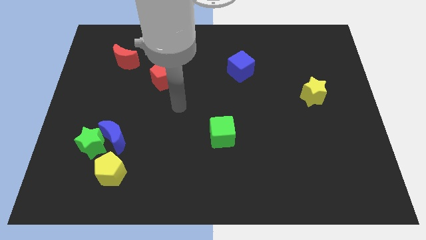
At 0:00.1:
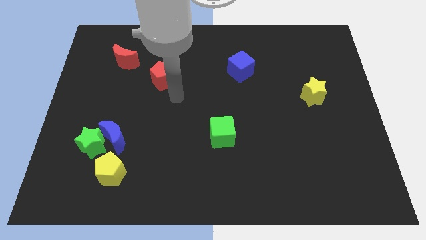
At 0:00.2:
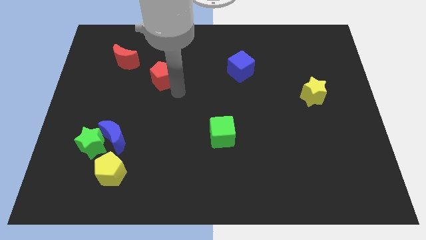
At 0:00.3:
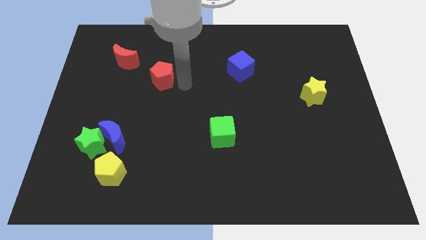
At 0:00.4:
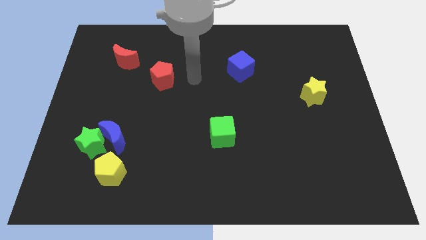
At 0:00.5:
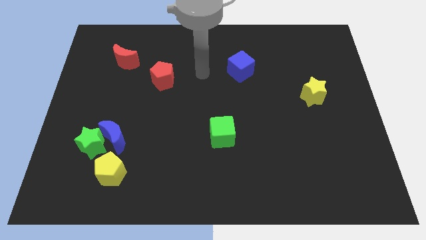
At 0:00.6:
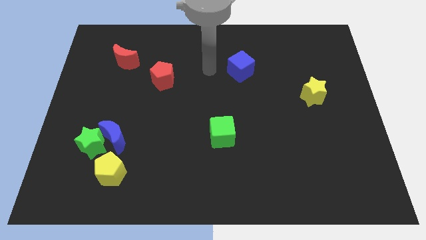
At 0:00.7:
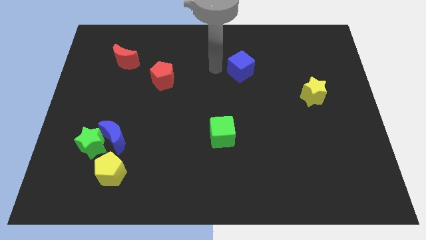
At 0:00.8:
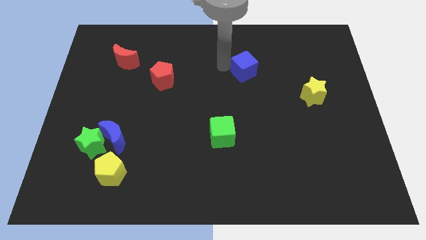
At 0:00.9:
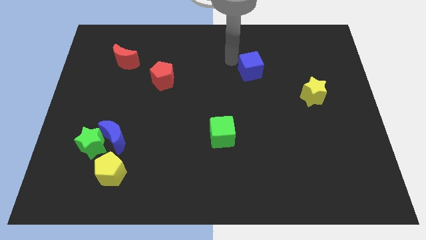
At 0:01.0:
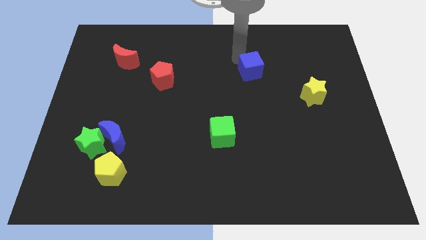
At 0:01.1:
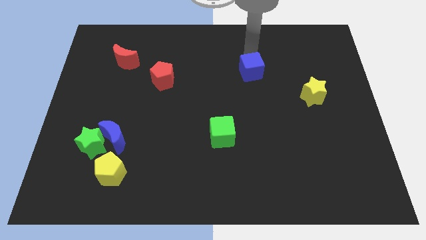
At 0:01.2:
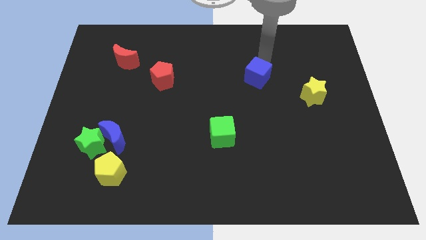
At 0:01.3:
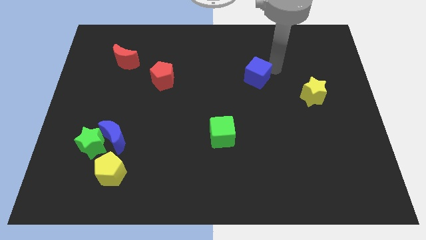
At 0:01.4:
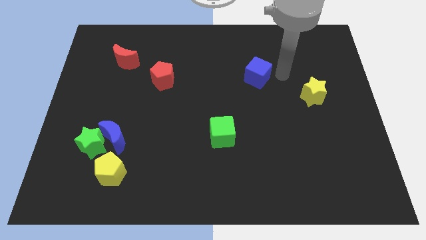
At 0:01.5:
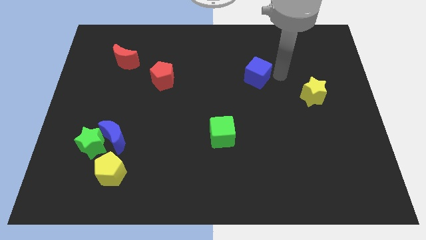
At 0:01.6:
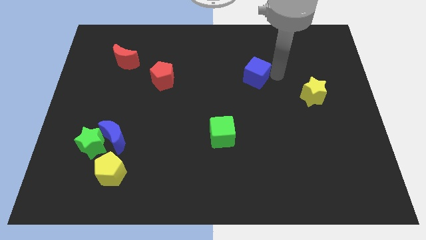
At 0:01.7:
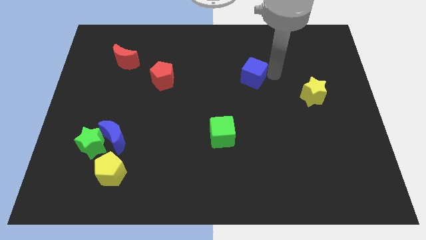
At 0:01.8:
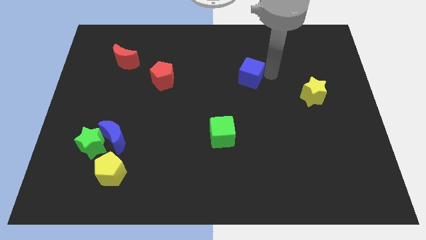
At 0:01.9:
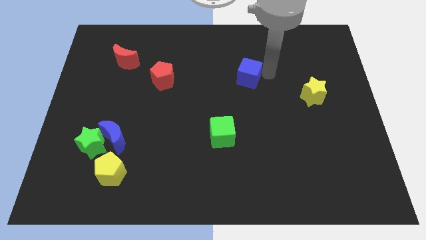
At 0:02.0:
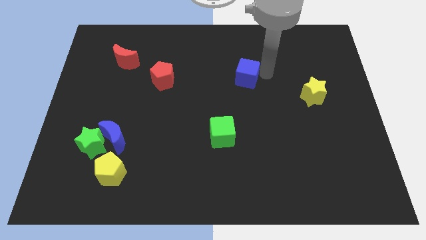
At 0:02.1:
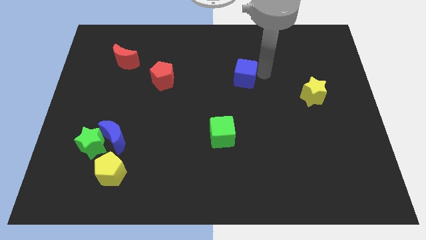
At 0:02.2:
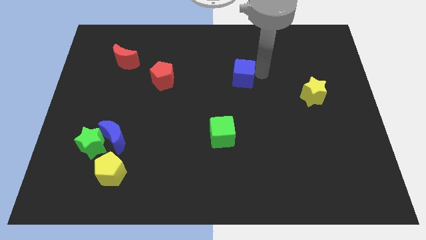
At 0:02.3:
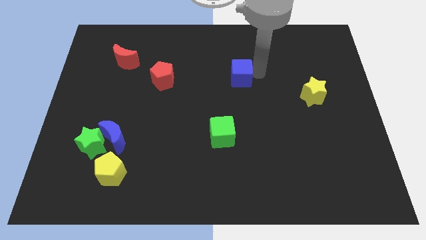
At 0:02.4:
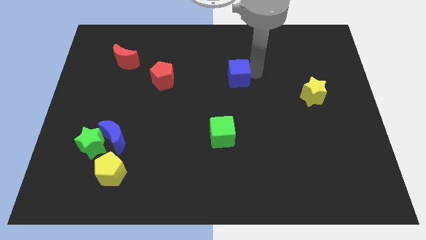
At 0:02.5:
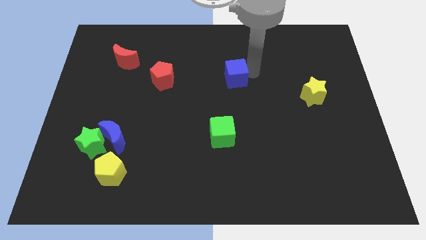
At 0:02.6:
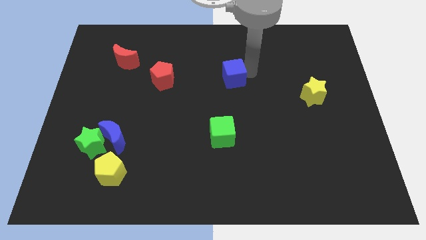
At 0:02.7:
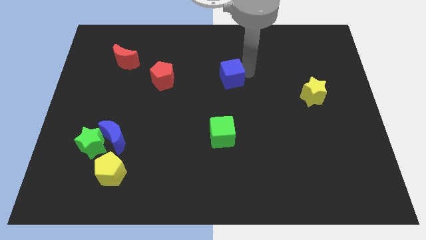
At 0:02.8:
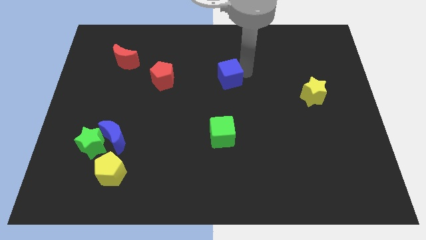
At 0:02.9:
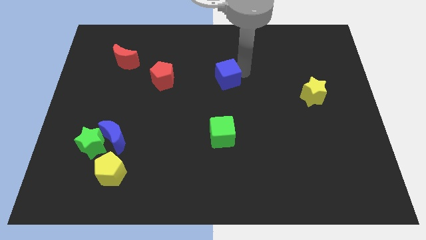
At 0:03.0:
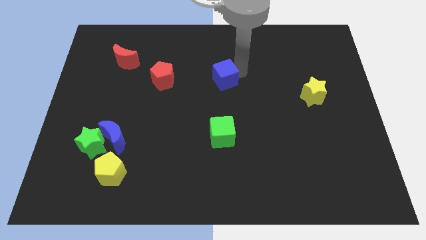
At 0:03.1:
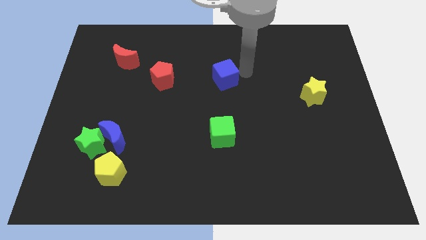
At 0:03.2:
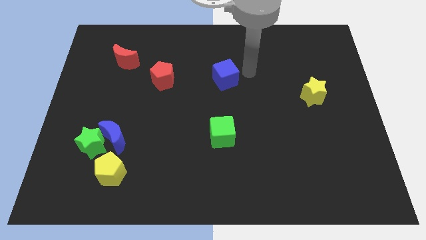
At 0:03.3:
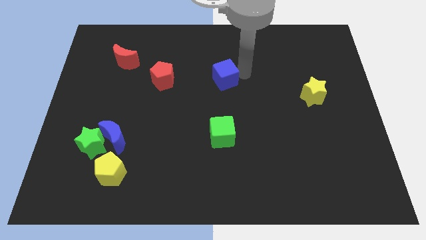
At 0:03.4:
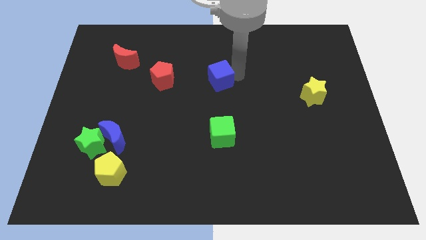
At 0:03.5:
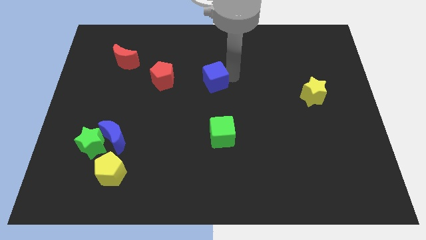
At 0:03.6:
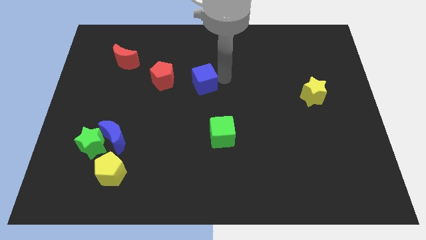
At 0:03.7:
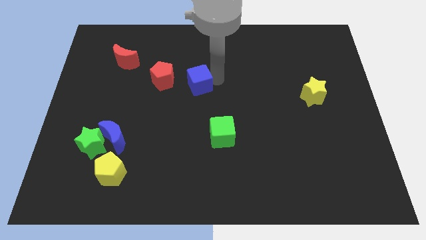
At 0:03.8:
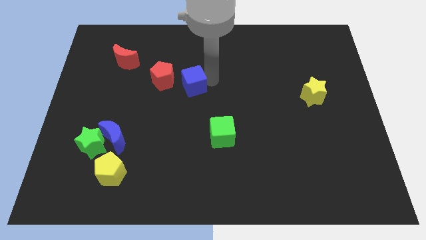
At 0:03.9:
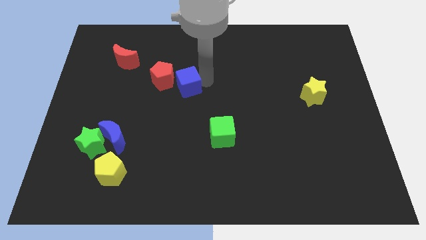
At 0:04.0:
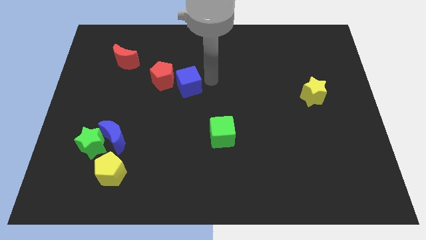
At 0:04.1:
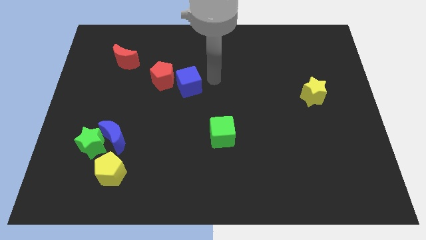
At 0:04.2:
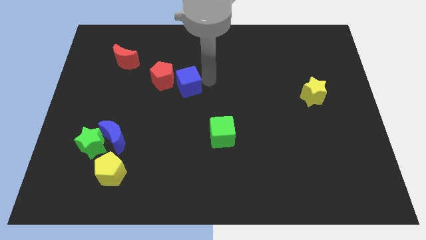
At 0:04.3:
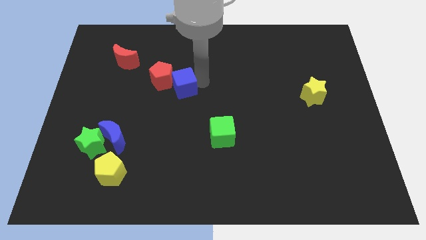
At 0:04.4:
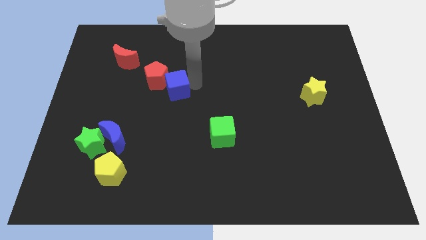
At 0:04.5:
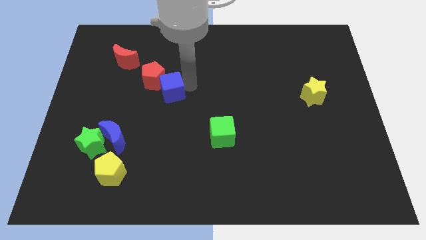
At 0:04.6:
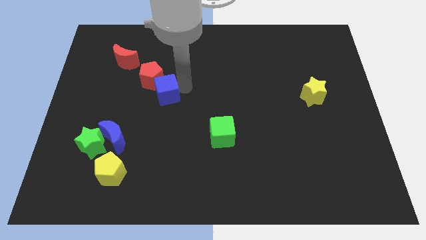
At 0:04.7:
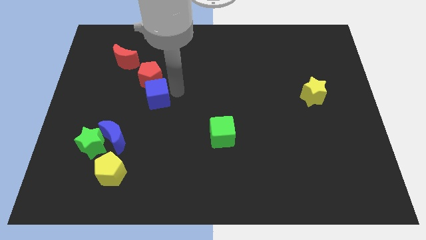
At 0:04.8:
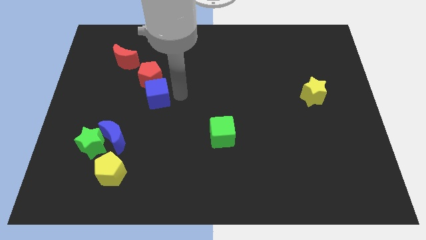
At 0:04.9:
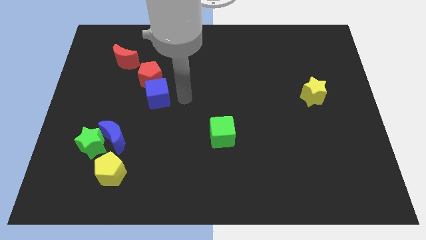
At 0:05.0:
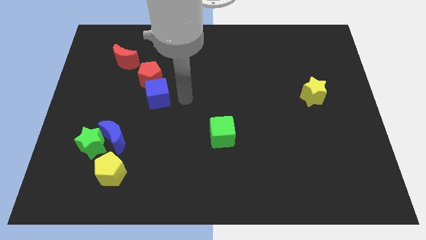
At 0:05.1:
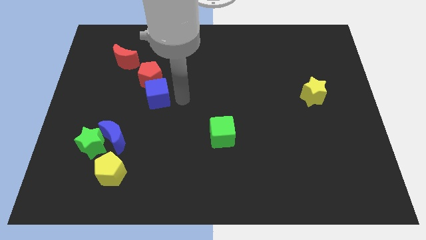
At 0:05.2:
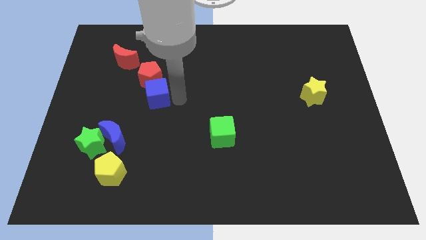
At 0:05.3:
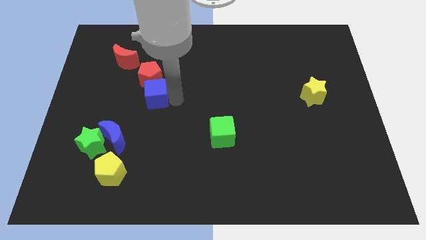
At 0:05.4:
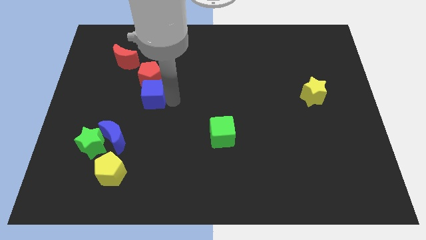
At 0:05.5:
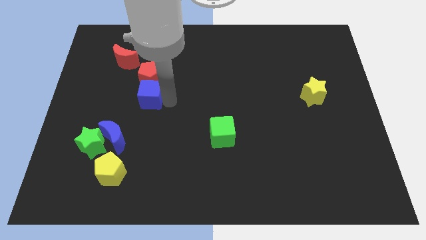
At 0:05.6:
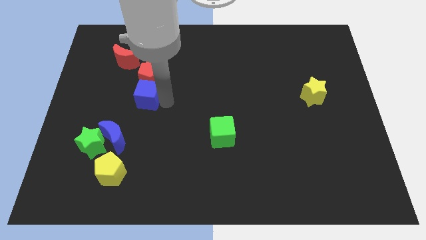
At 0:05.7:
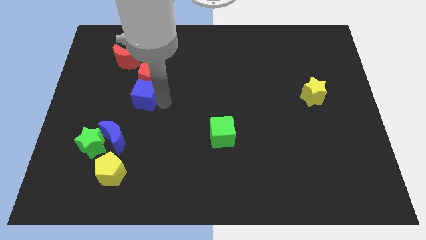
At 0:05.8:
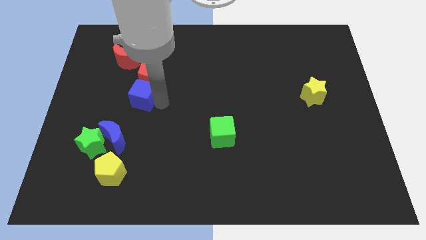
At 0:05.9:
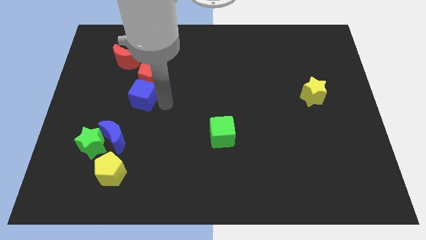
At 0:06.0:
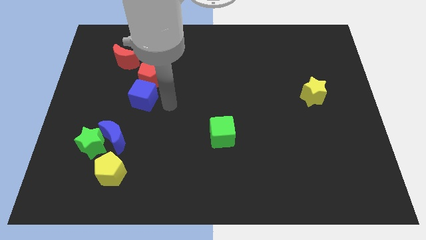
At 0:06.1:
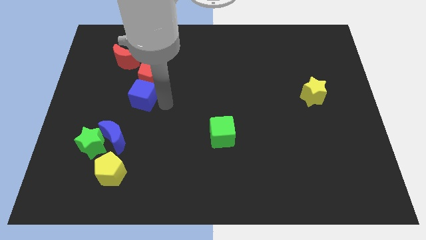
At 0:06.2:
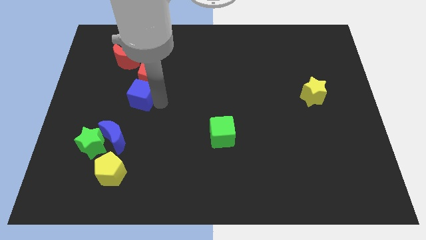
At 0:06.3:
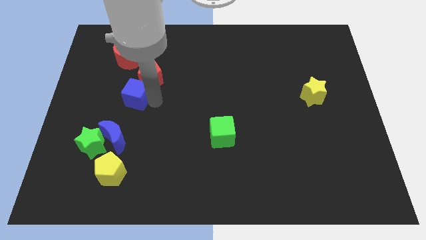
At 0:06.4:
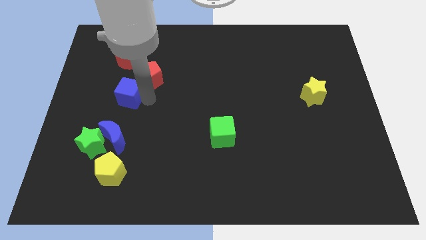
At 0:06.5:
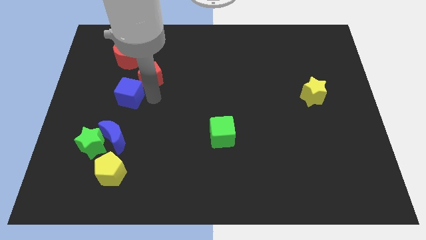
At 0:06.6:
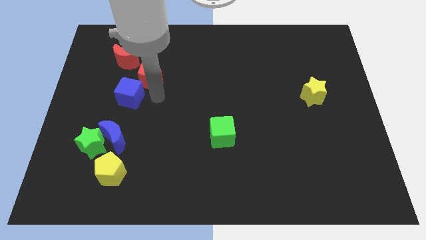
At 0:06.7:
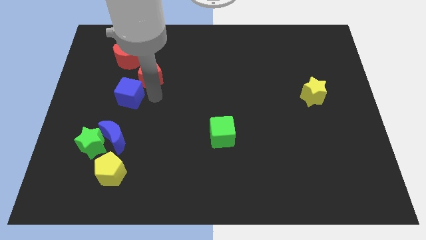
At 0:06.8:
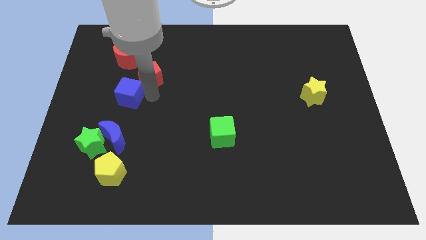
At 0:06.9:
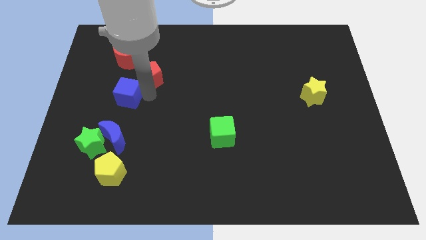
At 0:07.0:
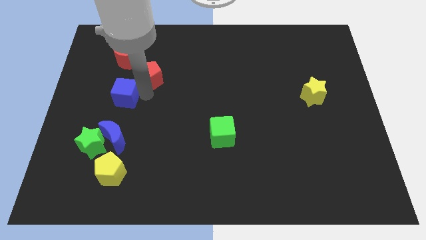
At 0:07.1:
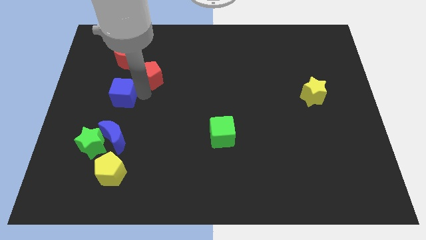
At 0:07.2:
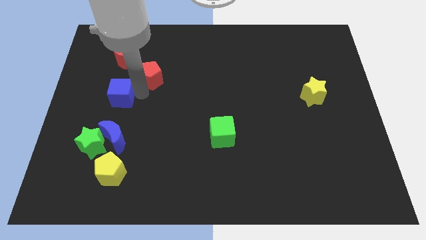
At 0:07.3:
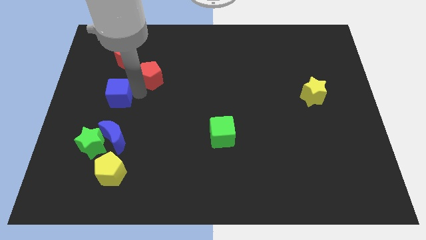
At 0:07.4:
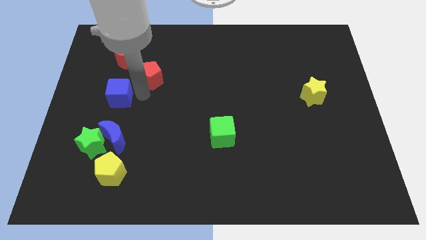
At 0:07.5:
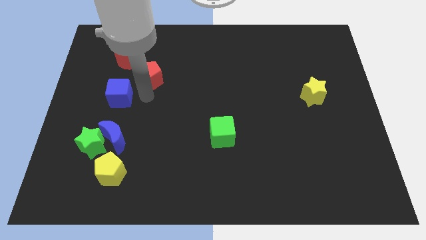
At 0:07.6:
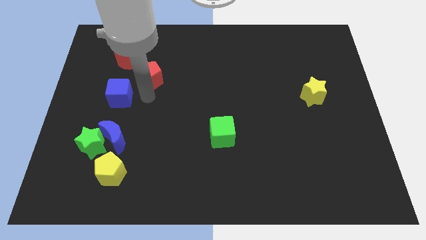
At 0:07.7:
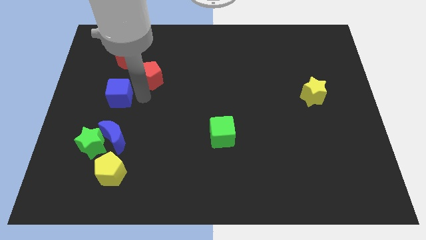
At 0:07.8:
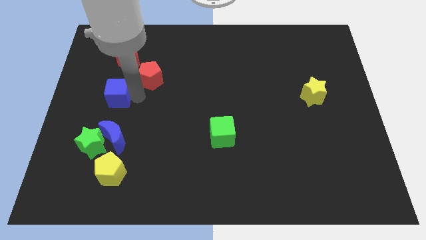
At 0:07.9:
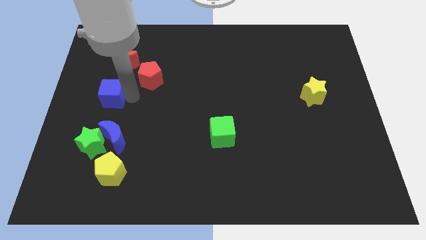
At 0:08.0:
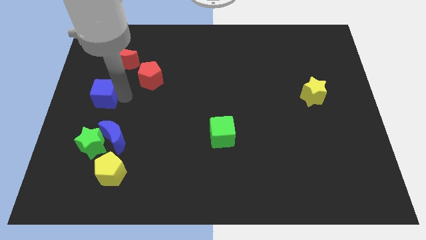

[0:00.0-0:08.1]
put the blue cube to the left side

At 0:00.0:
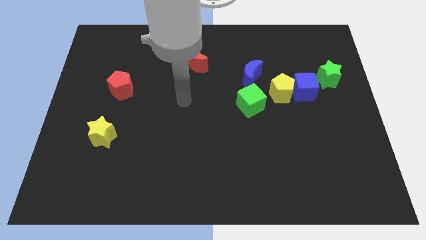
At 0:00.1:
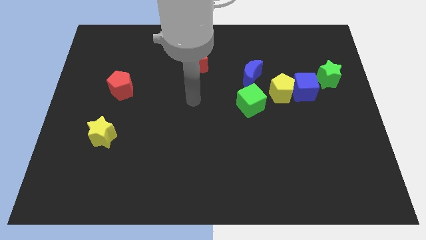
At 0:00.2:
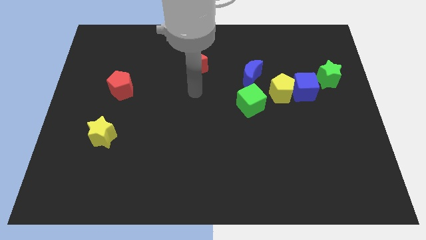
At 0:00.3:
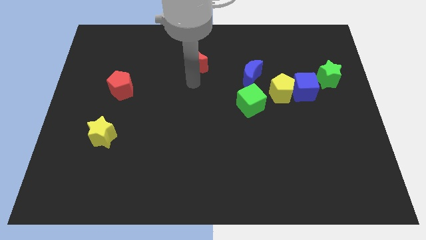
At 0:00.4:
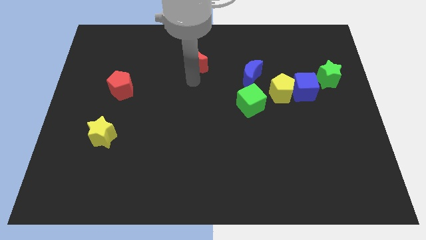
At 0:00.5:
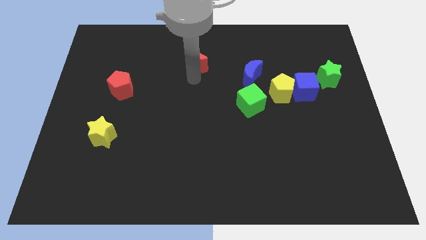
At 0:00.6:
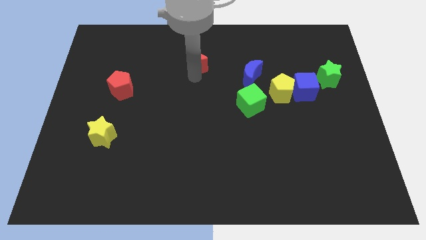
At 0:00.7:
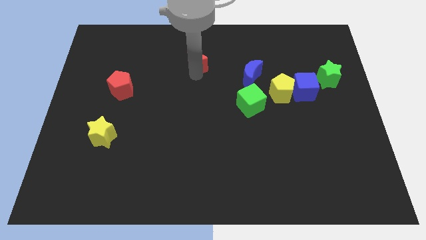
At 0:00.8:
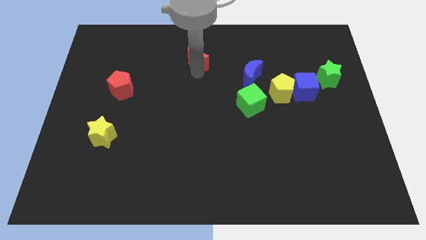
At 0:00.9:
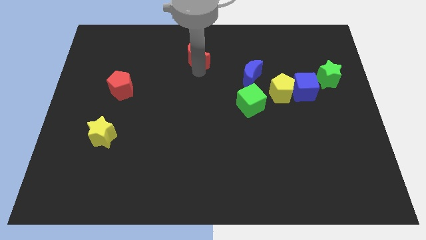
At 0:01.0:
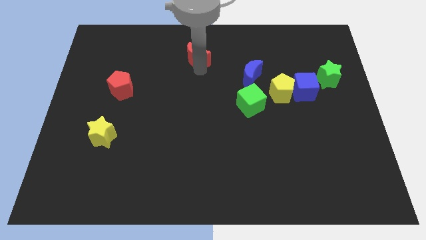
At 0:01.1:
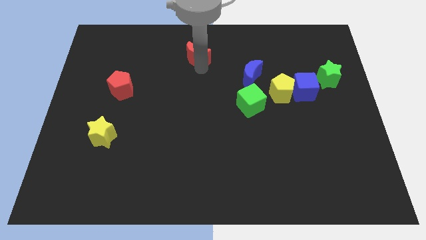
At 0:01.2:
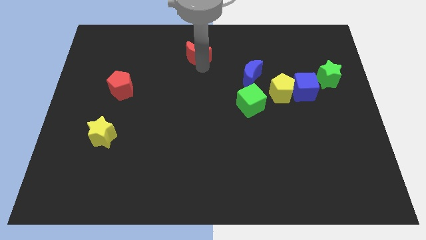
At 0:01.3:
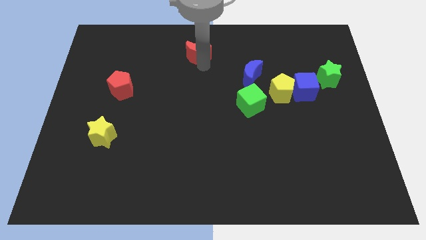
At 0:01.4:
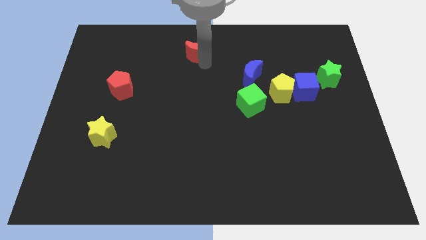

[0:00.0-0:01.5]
push the red moon to the towards your base
